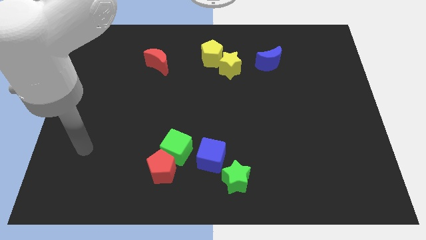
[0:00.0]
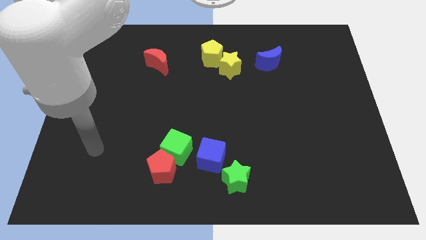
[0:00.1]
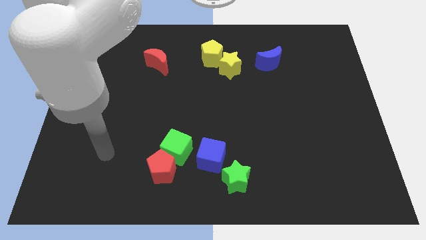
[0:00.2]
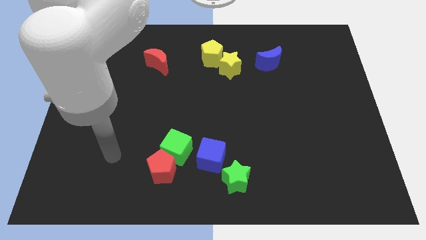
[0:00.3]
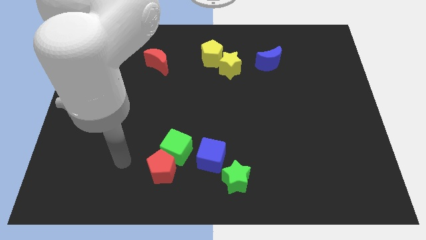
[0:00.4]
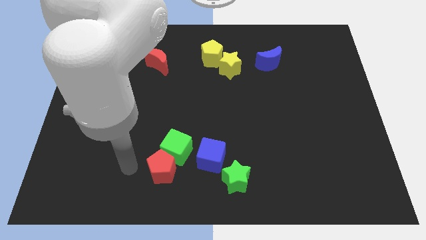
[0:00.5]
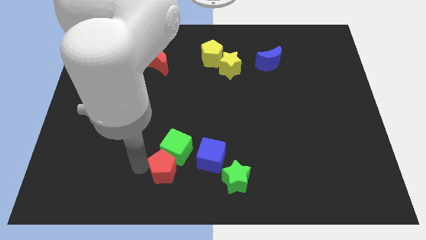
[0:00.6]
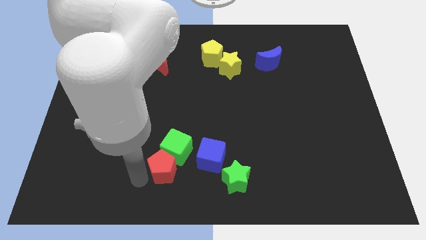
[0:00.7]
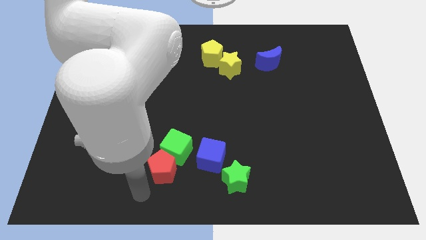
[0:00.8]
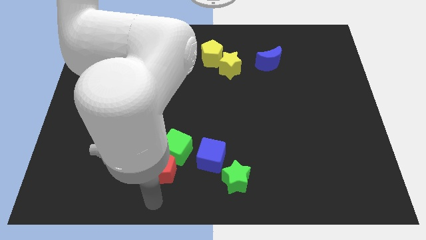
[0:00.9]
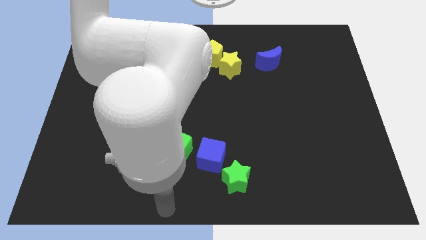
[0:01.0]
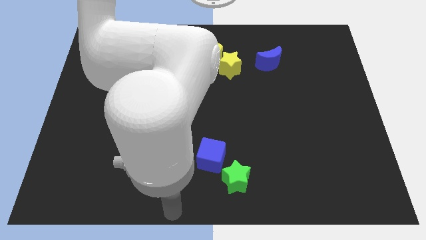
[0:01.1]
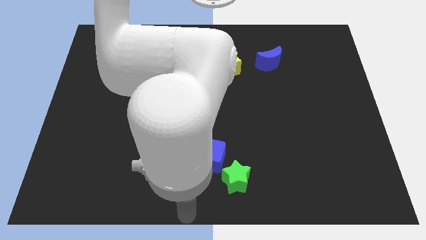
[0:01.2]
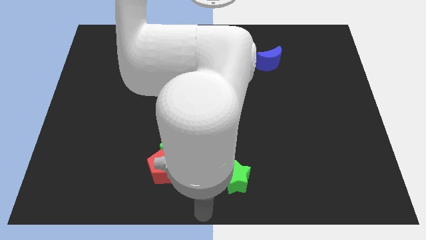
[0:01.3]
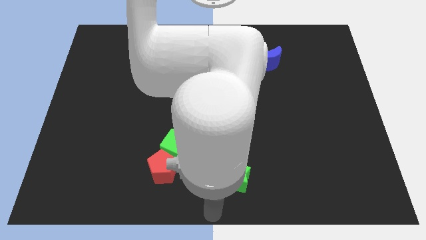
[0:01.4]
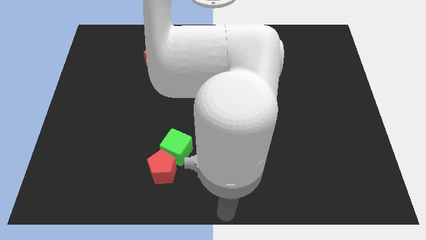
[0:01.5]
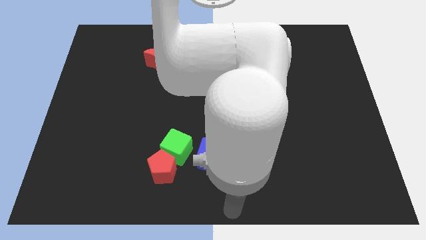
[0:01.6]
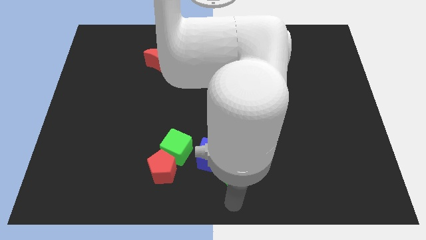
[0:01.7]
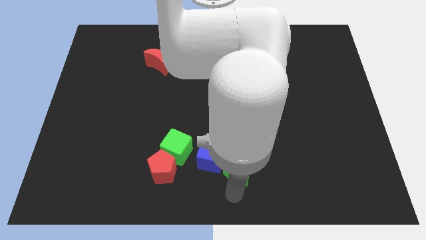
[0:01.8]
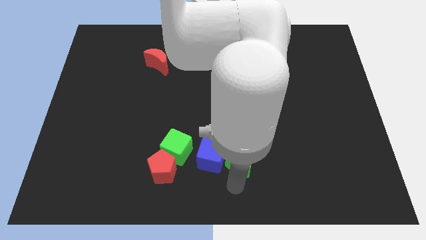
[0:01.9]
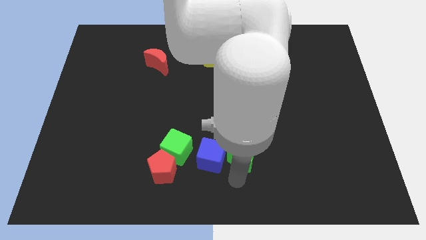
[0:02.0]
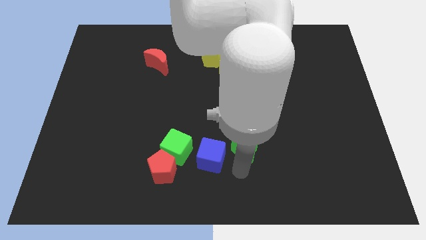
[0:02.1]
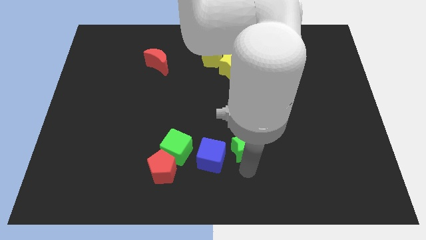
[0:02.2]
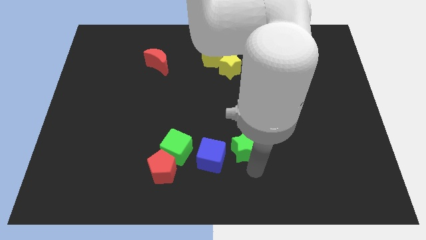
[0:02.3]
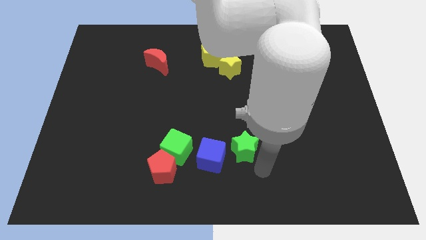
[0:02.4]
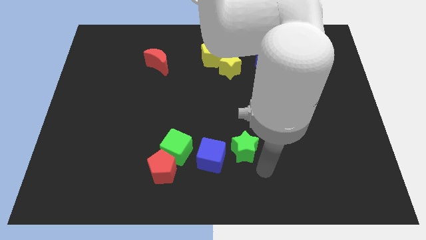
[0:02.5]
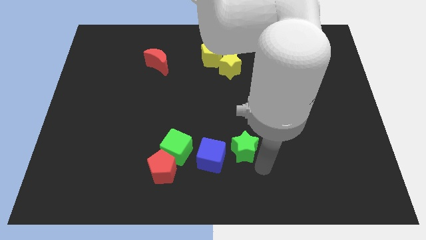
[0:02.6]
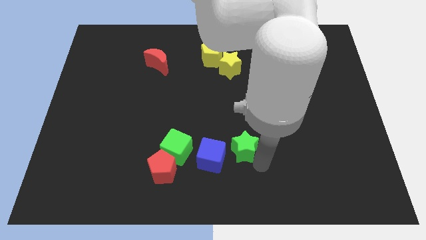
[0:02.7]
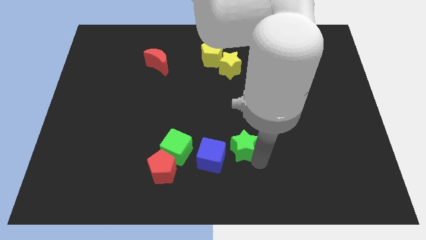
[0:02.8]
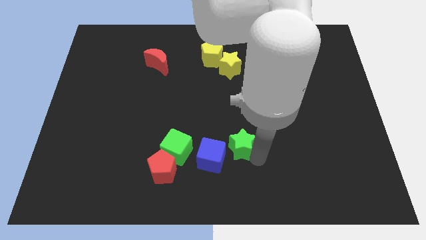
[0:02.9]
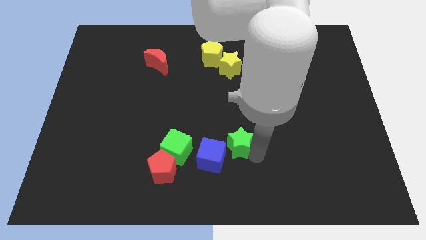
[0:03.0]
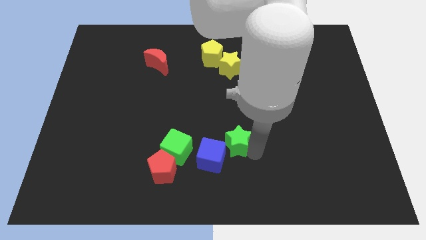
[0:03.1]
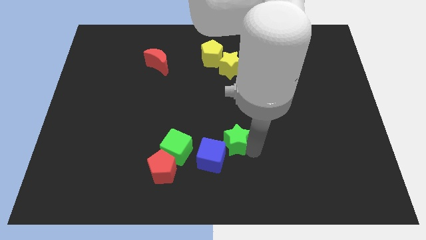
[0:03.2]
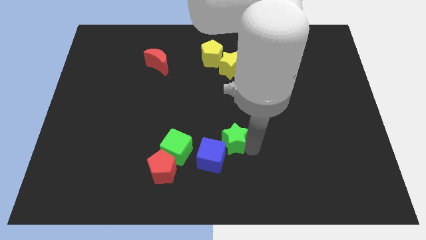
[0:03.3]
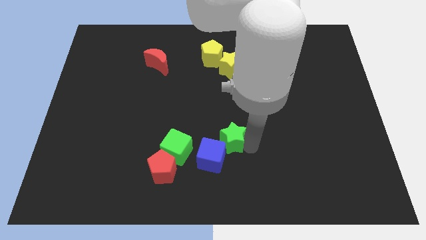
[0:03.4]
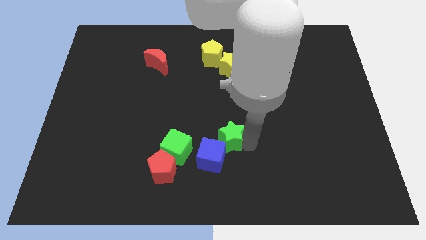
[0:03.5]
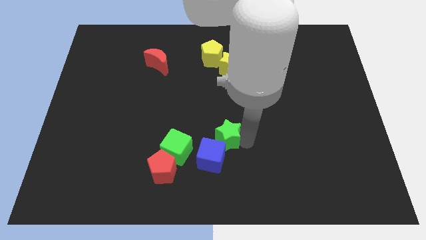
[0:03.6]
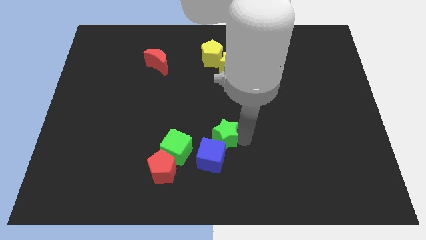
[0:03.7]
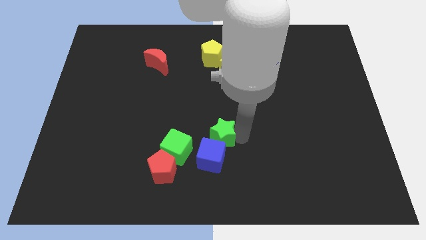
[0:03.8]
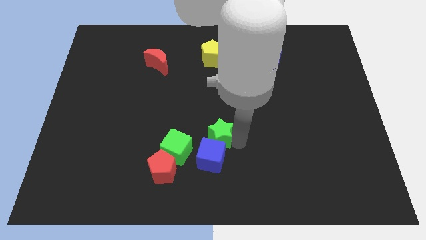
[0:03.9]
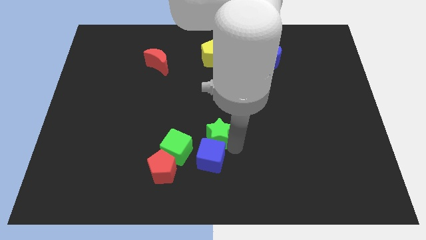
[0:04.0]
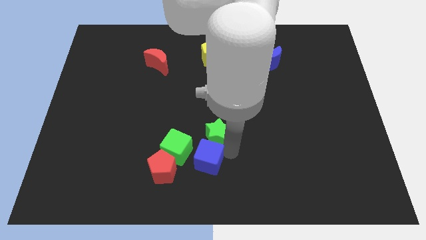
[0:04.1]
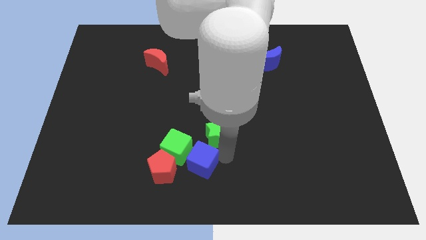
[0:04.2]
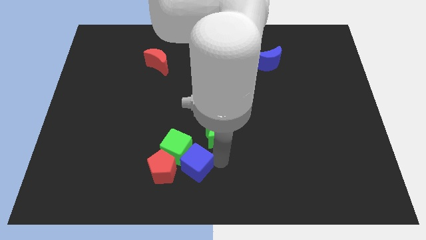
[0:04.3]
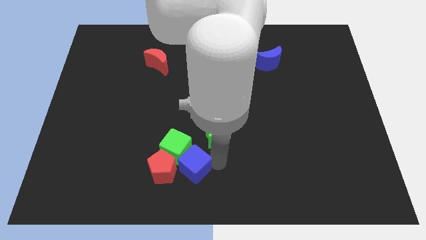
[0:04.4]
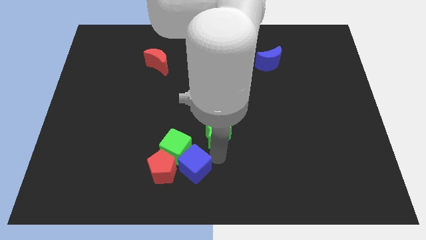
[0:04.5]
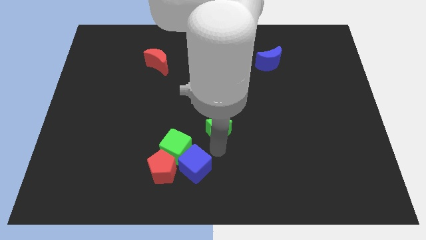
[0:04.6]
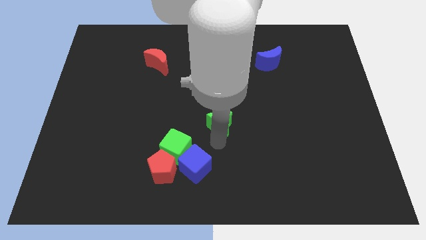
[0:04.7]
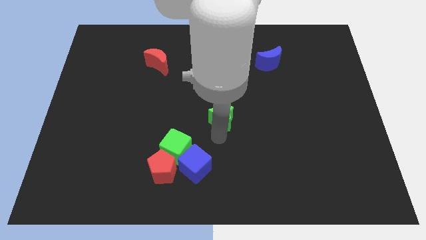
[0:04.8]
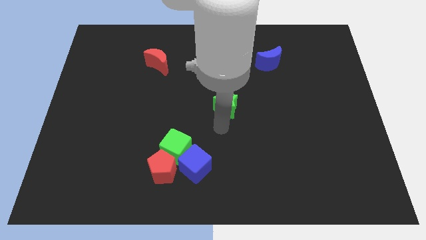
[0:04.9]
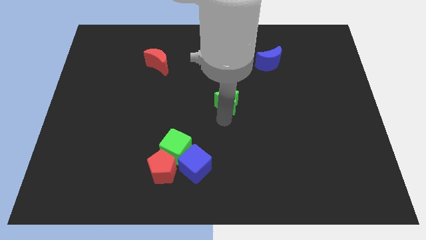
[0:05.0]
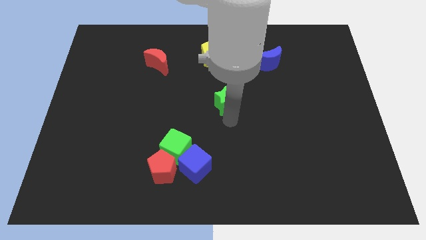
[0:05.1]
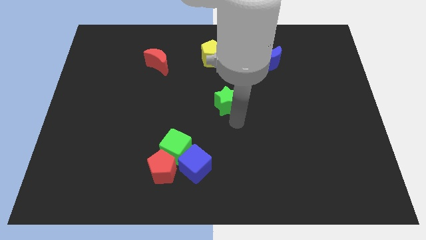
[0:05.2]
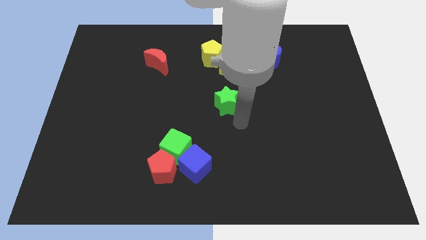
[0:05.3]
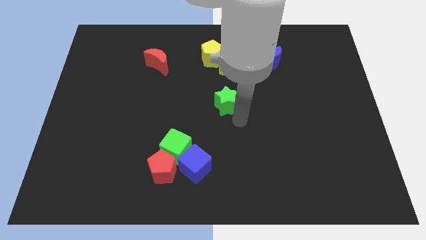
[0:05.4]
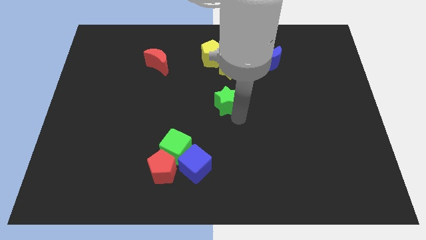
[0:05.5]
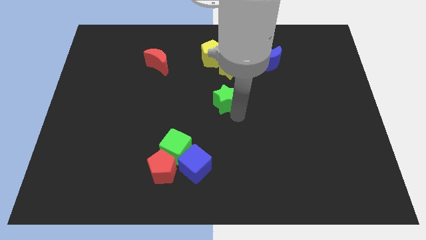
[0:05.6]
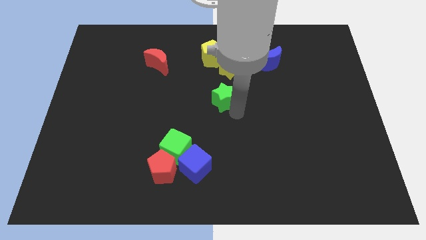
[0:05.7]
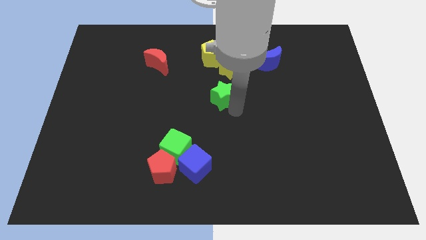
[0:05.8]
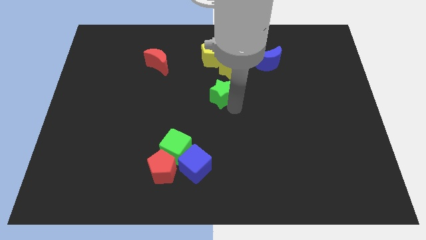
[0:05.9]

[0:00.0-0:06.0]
move the green star to the bottom left of the yellow star
